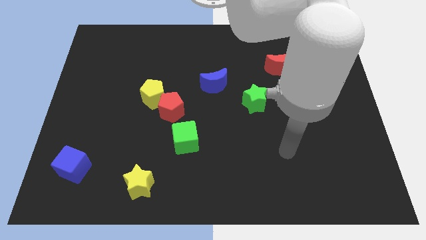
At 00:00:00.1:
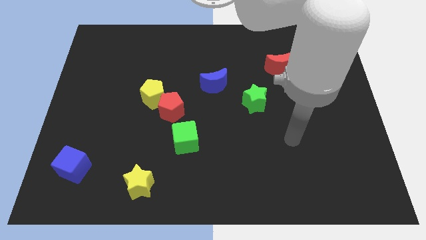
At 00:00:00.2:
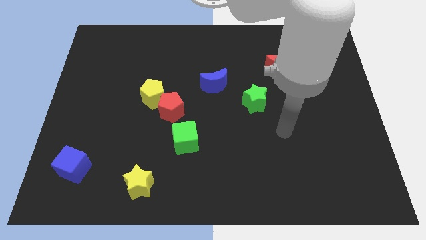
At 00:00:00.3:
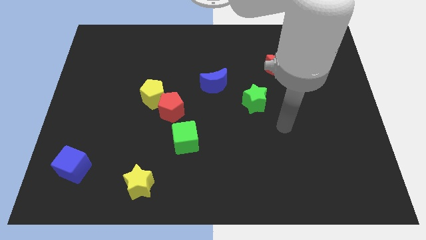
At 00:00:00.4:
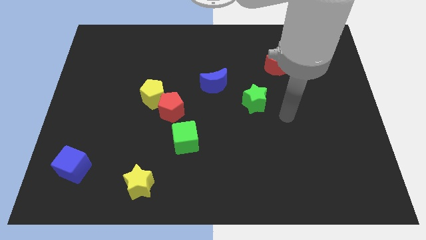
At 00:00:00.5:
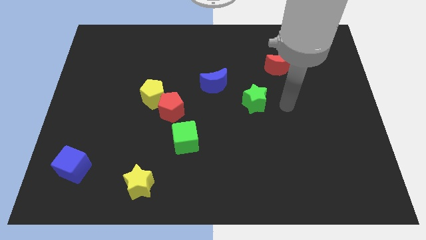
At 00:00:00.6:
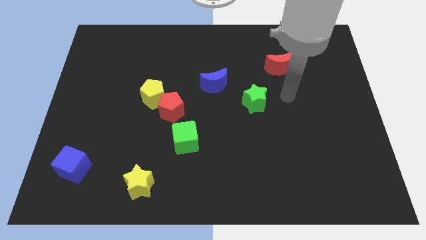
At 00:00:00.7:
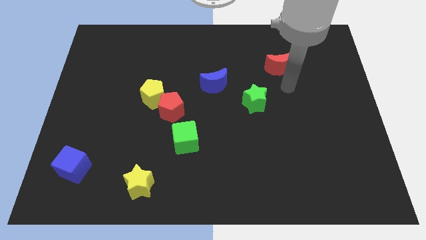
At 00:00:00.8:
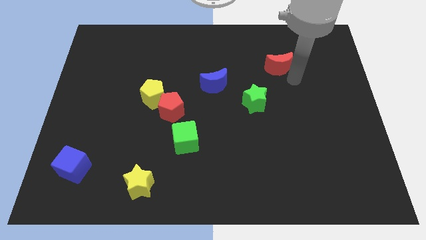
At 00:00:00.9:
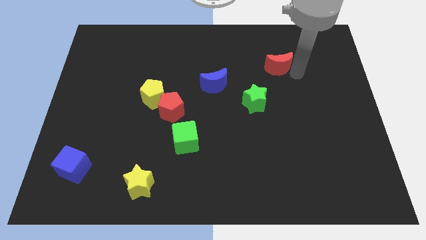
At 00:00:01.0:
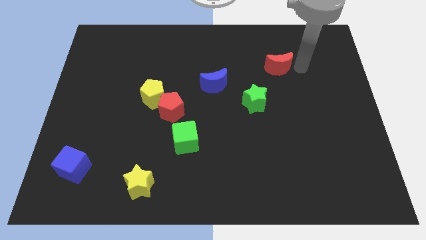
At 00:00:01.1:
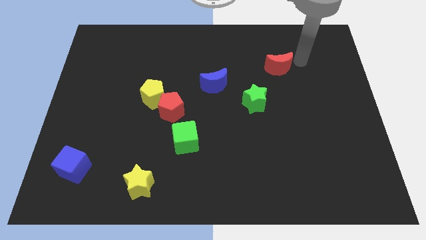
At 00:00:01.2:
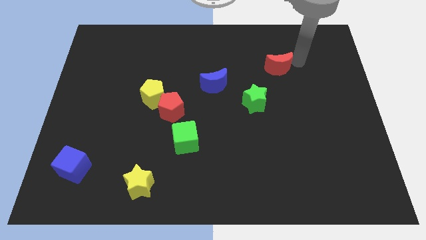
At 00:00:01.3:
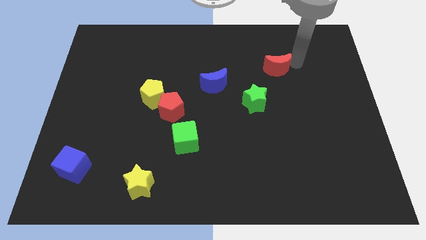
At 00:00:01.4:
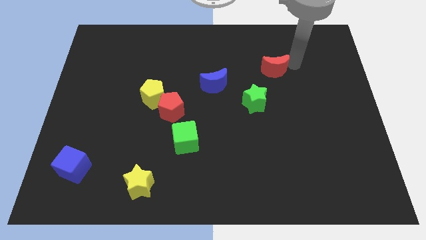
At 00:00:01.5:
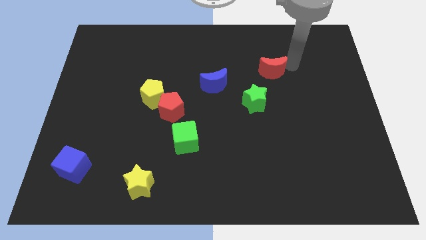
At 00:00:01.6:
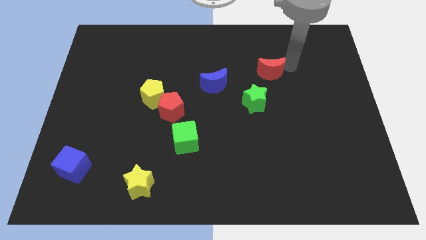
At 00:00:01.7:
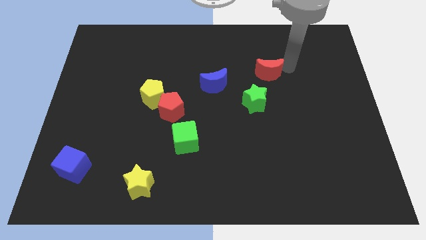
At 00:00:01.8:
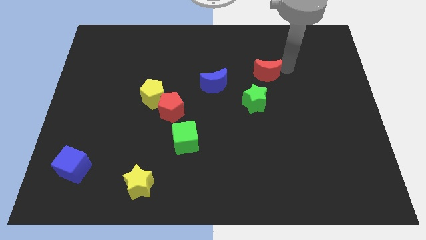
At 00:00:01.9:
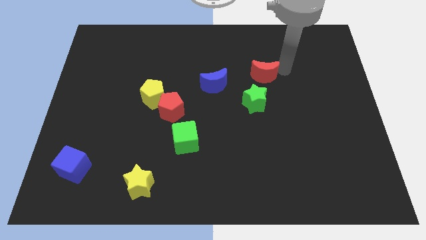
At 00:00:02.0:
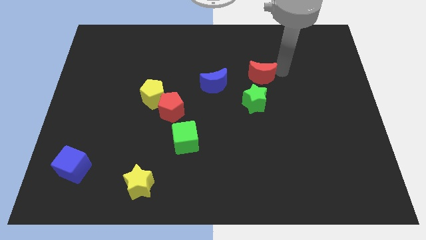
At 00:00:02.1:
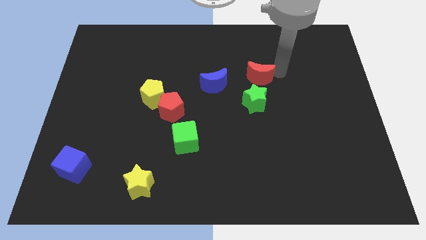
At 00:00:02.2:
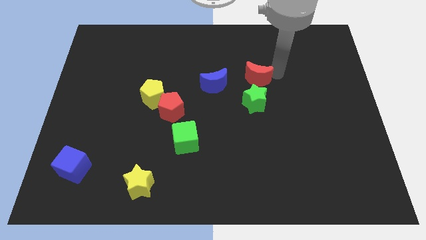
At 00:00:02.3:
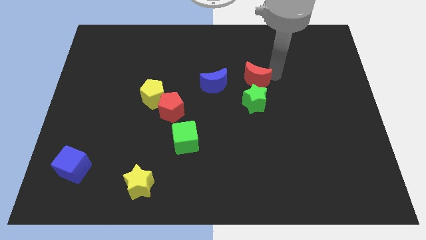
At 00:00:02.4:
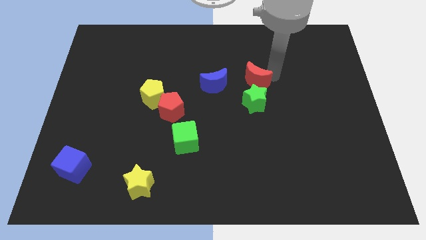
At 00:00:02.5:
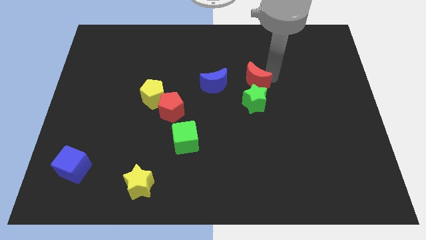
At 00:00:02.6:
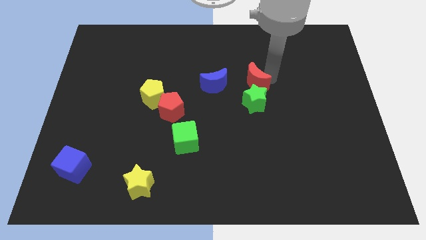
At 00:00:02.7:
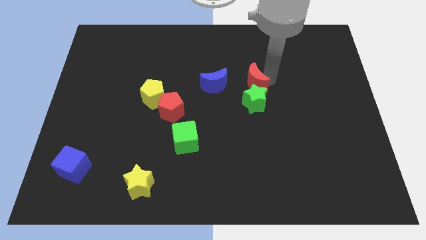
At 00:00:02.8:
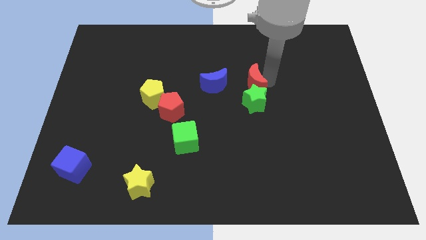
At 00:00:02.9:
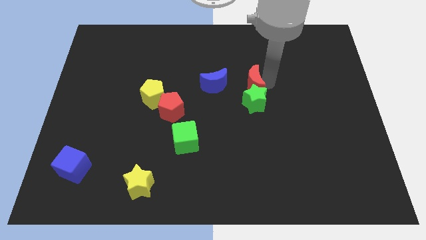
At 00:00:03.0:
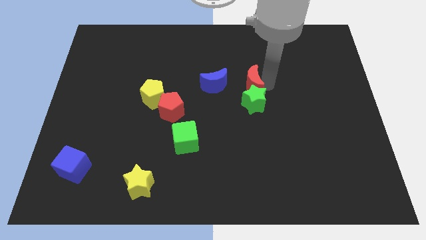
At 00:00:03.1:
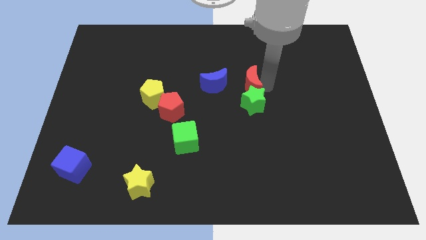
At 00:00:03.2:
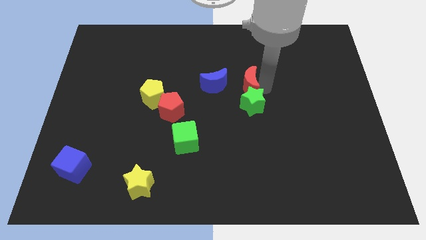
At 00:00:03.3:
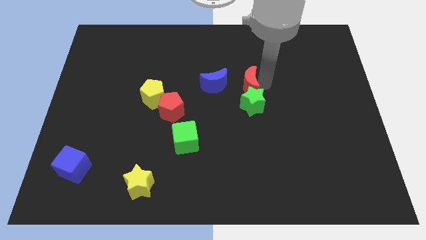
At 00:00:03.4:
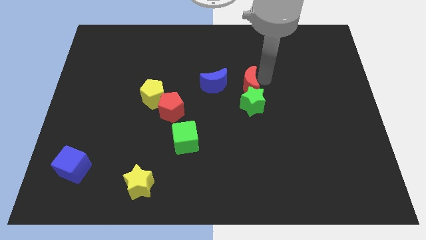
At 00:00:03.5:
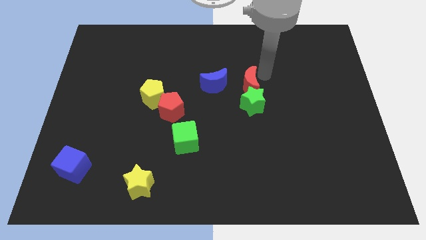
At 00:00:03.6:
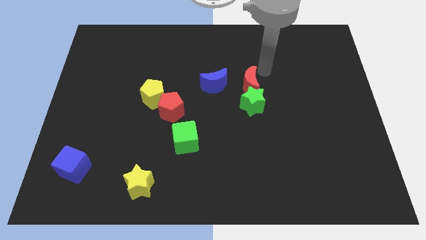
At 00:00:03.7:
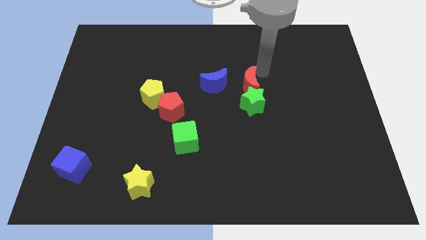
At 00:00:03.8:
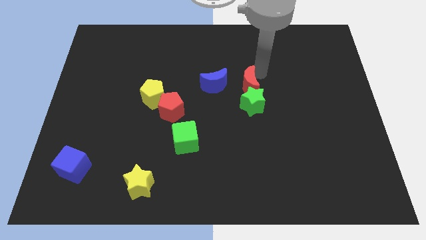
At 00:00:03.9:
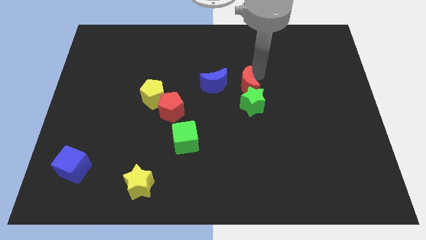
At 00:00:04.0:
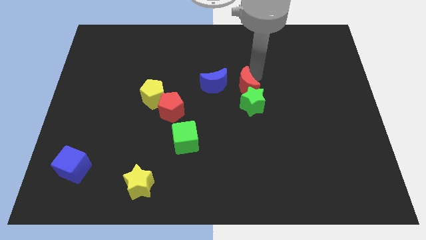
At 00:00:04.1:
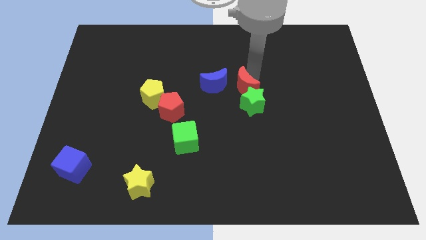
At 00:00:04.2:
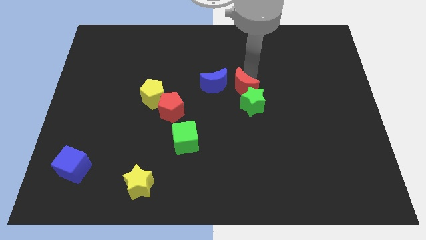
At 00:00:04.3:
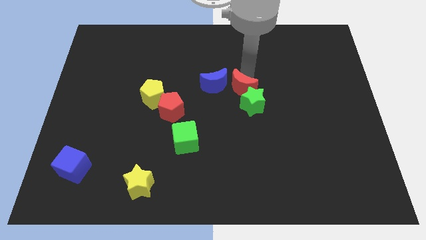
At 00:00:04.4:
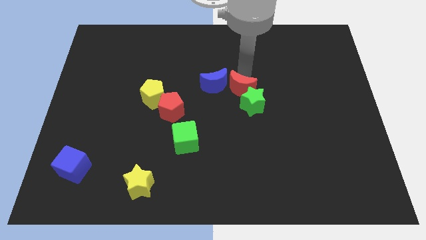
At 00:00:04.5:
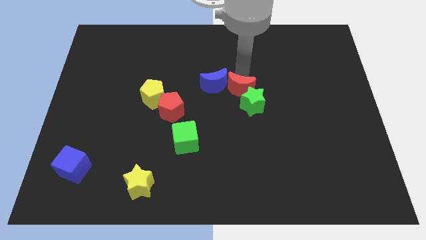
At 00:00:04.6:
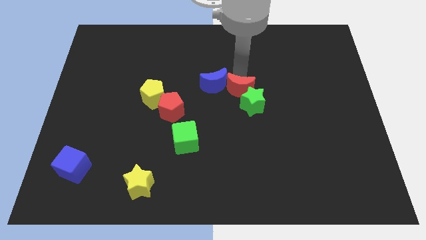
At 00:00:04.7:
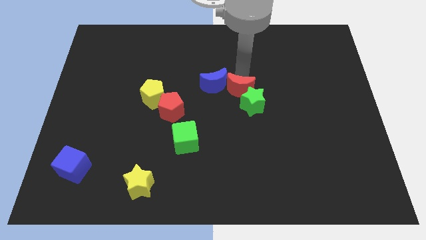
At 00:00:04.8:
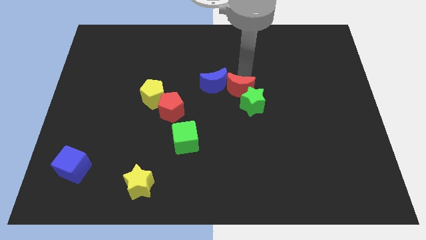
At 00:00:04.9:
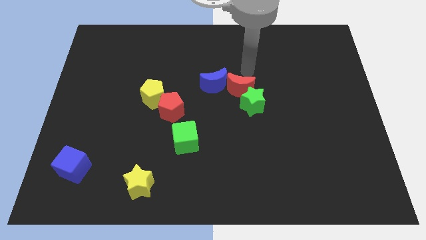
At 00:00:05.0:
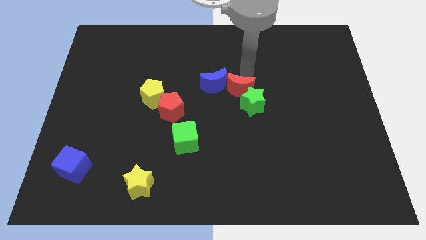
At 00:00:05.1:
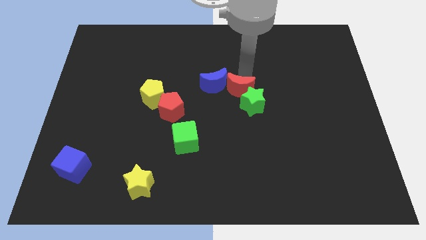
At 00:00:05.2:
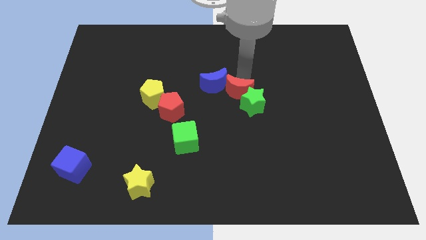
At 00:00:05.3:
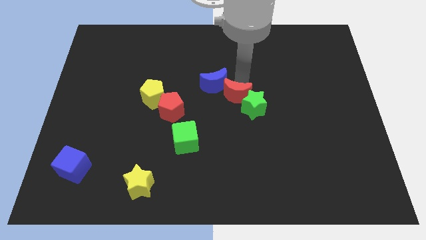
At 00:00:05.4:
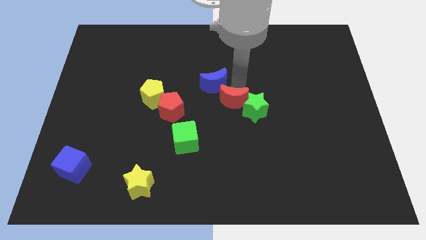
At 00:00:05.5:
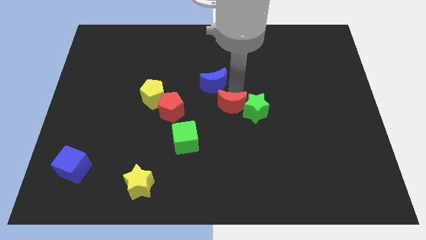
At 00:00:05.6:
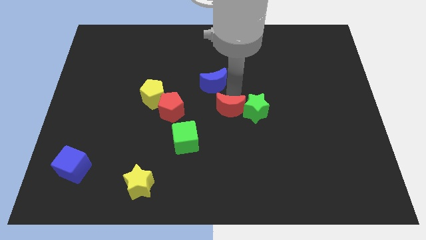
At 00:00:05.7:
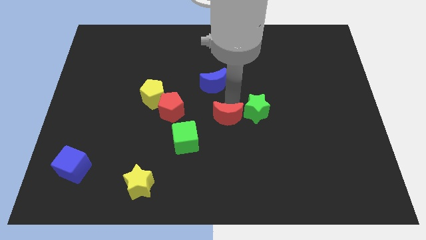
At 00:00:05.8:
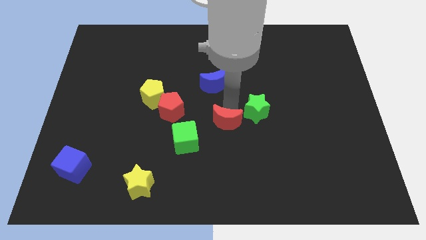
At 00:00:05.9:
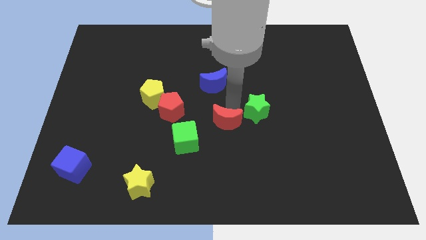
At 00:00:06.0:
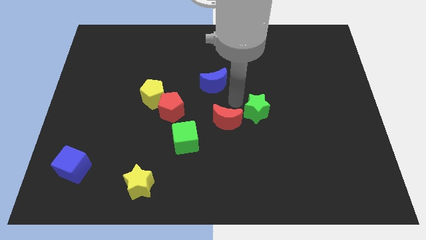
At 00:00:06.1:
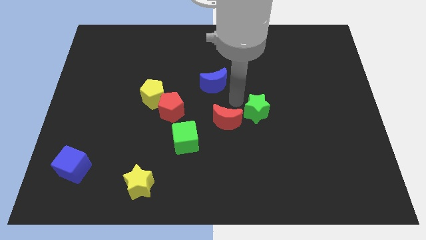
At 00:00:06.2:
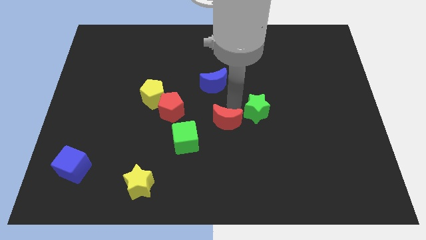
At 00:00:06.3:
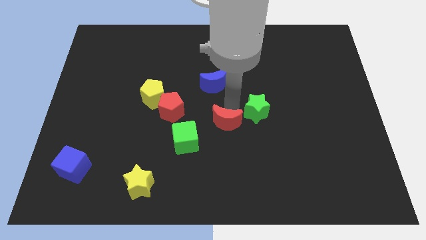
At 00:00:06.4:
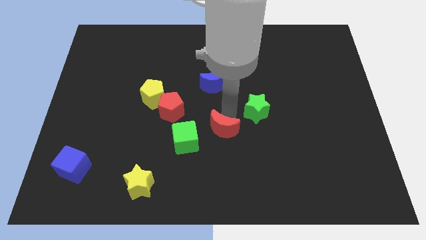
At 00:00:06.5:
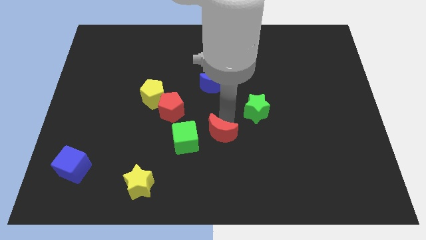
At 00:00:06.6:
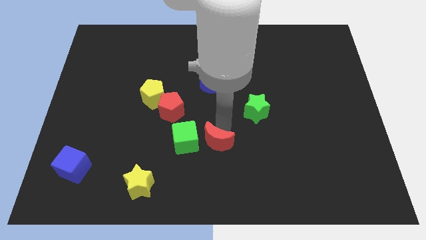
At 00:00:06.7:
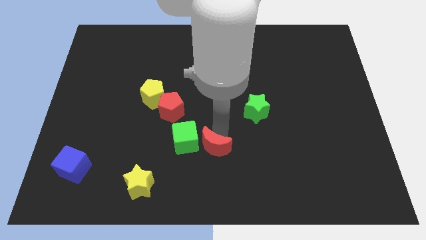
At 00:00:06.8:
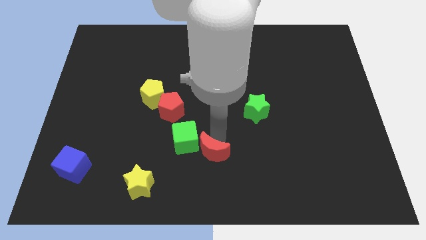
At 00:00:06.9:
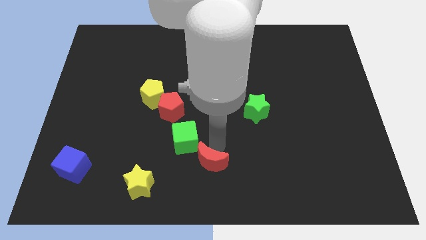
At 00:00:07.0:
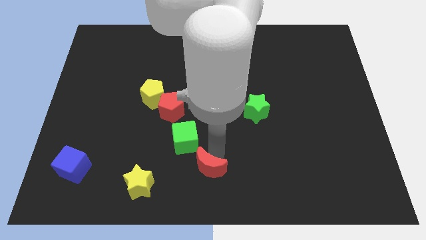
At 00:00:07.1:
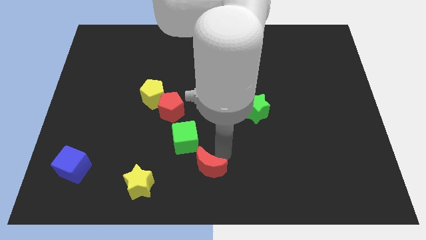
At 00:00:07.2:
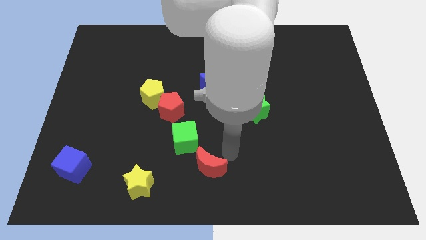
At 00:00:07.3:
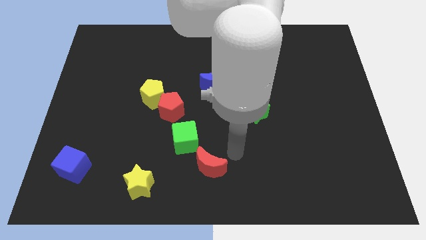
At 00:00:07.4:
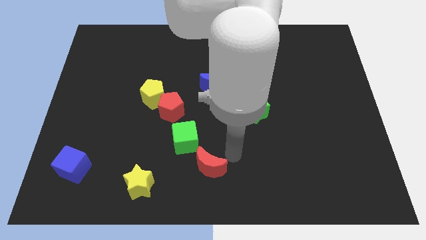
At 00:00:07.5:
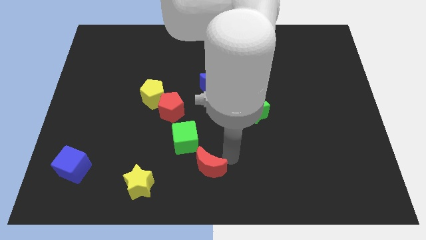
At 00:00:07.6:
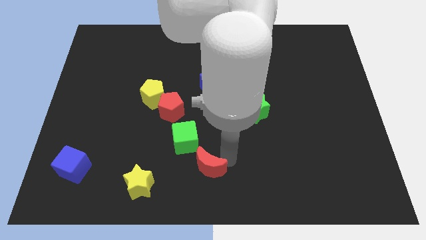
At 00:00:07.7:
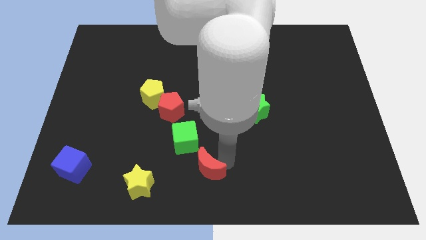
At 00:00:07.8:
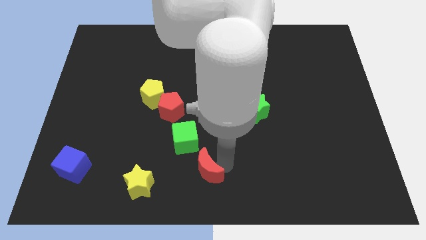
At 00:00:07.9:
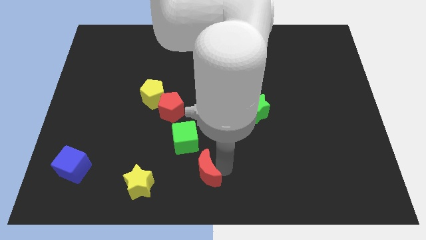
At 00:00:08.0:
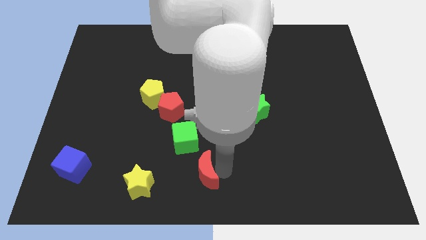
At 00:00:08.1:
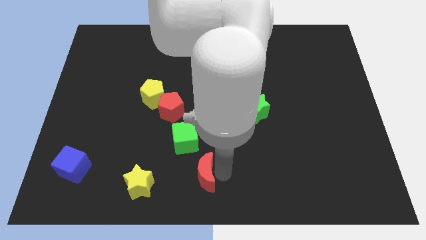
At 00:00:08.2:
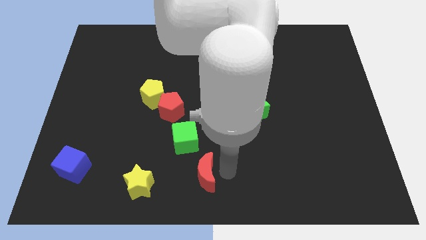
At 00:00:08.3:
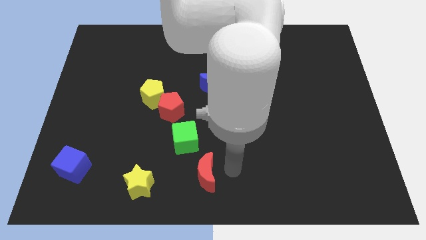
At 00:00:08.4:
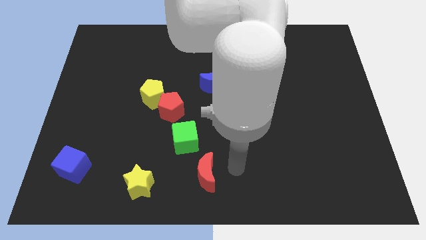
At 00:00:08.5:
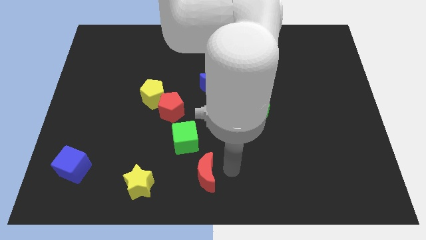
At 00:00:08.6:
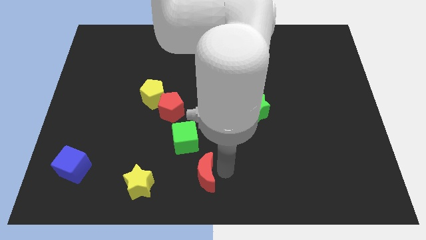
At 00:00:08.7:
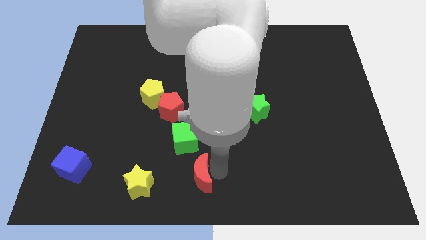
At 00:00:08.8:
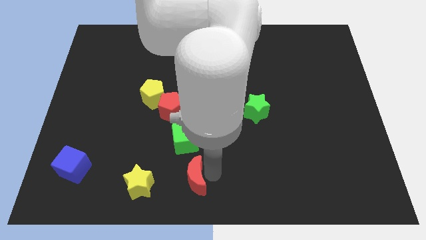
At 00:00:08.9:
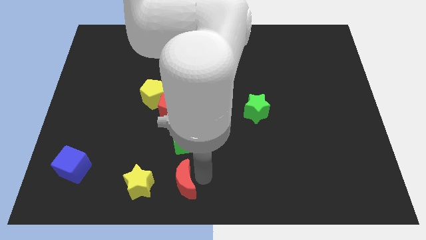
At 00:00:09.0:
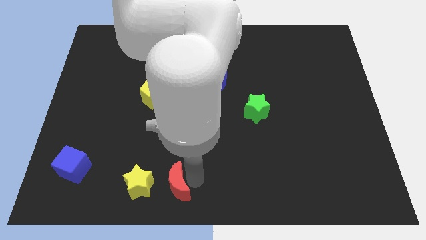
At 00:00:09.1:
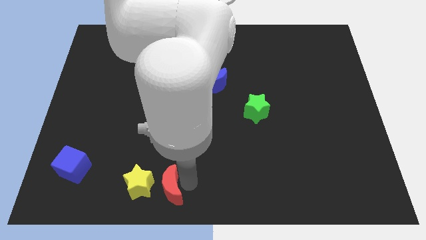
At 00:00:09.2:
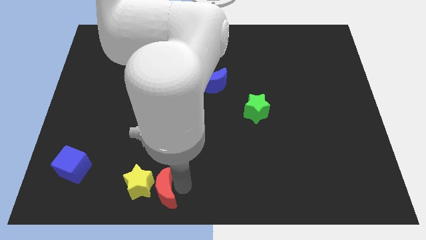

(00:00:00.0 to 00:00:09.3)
slide the red moon towards the yellow star
